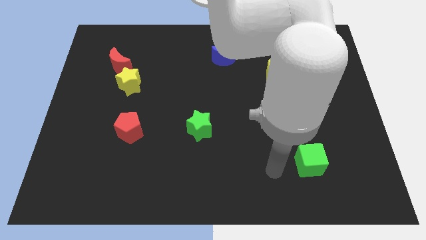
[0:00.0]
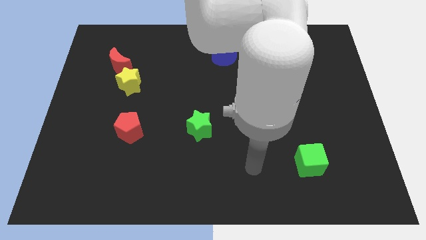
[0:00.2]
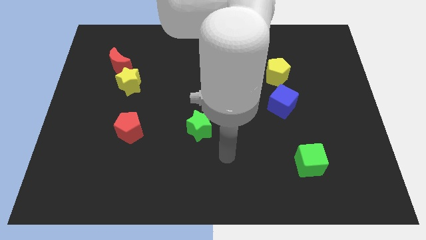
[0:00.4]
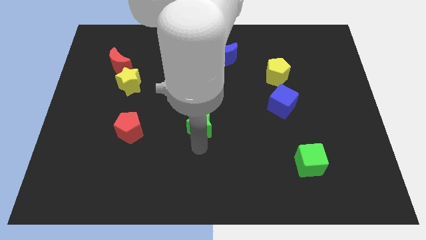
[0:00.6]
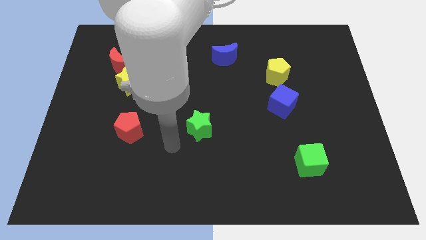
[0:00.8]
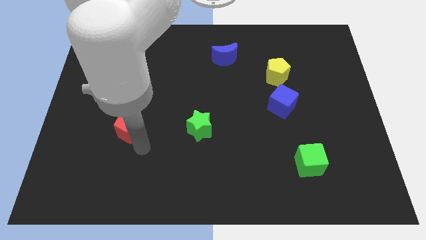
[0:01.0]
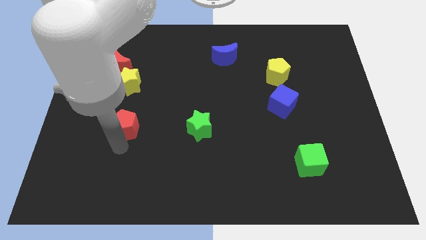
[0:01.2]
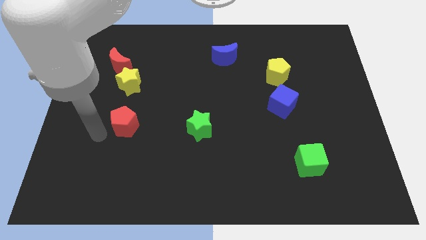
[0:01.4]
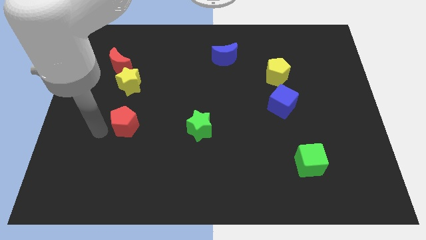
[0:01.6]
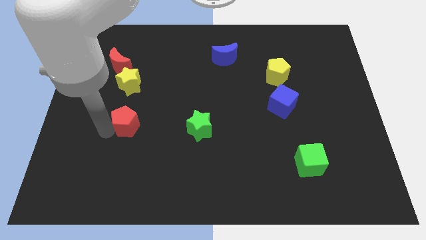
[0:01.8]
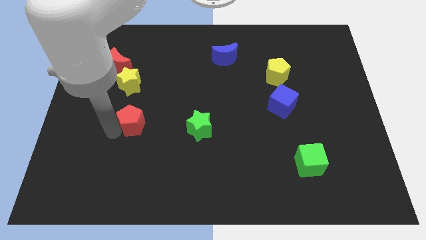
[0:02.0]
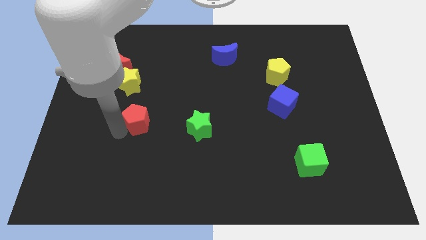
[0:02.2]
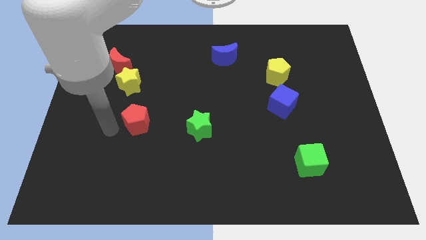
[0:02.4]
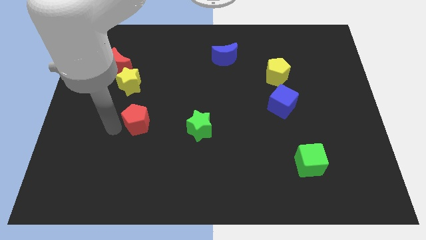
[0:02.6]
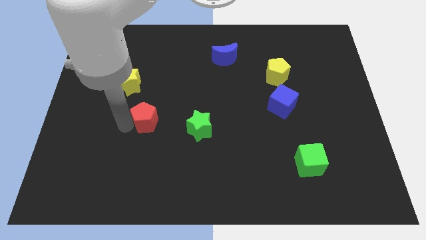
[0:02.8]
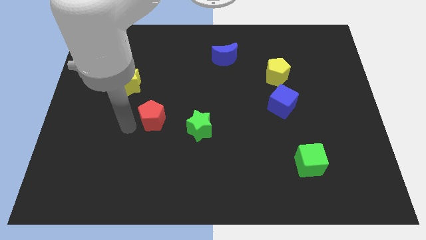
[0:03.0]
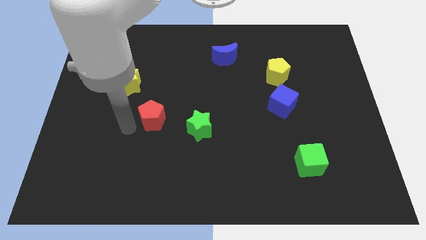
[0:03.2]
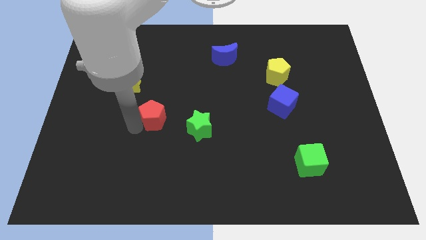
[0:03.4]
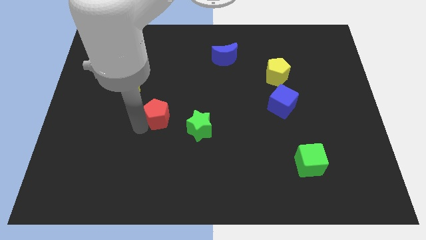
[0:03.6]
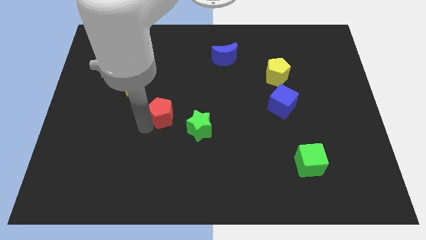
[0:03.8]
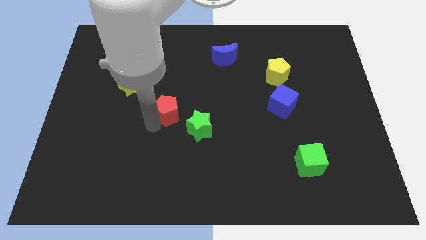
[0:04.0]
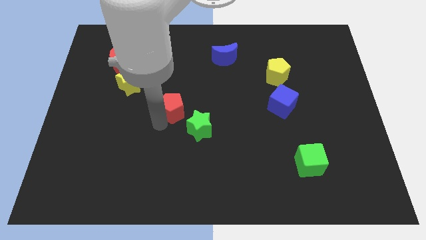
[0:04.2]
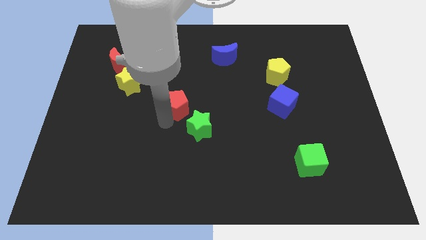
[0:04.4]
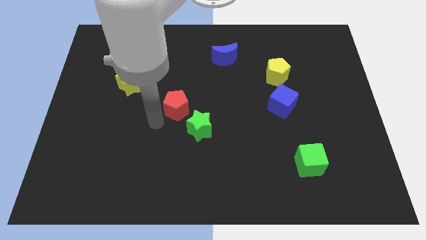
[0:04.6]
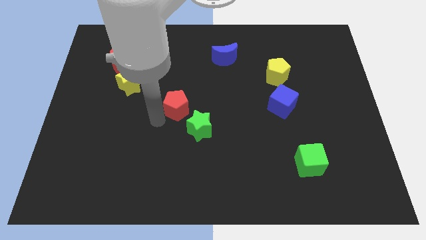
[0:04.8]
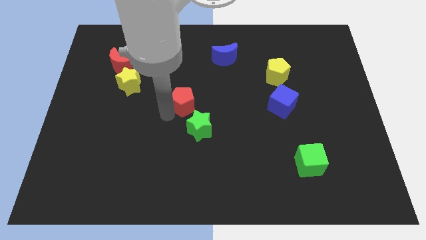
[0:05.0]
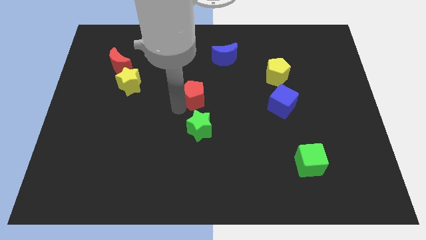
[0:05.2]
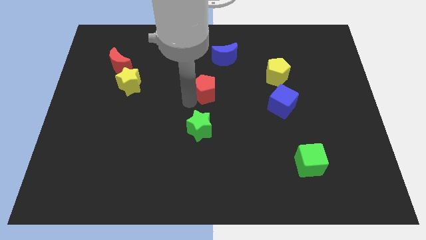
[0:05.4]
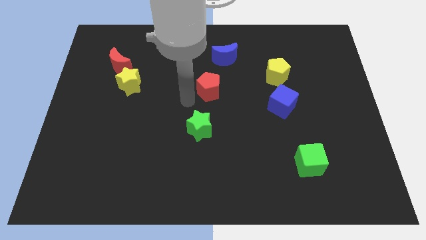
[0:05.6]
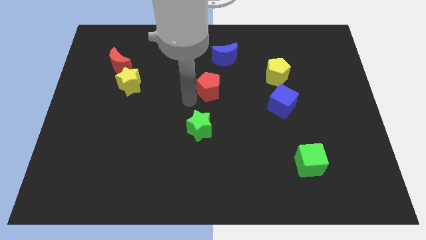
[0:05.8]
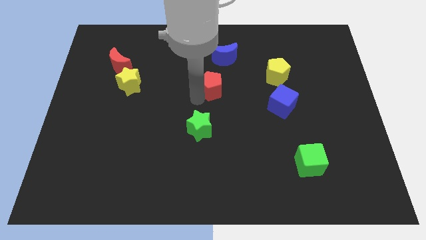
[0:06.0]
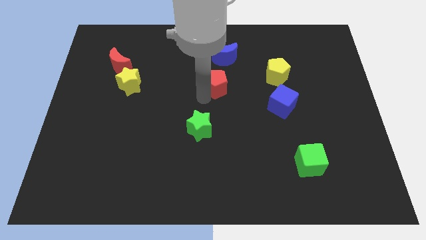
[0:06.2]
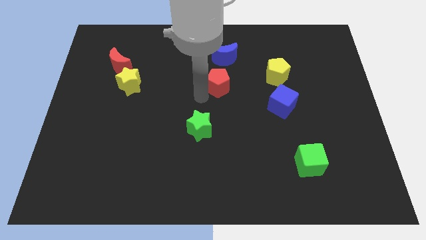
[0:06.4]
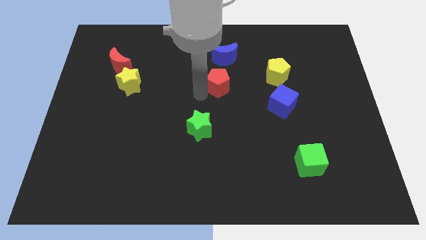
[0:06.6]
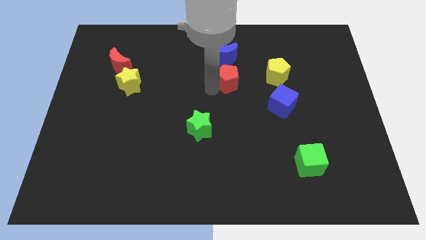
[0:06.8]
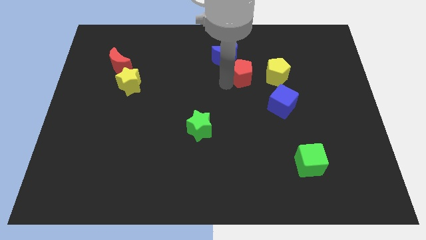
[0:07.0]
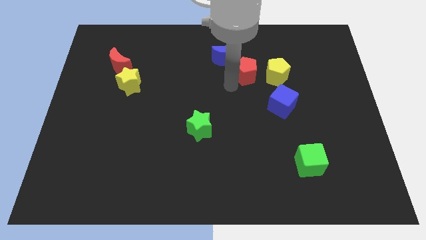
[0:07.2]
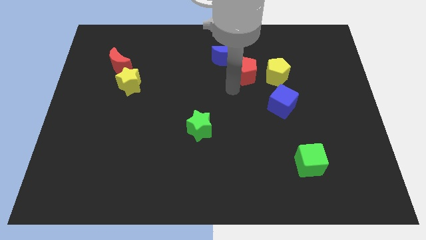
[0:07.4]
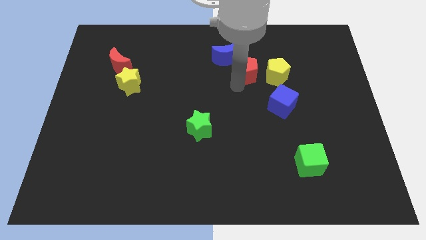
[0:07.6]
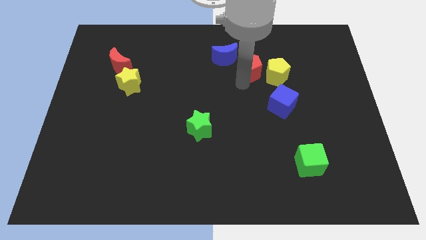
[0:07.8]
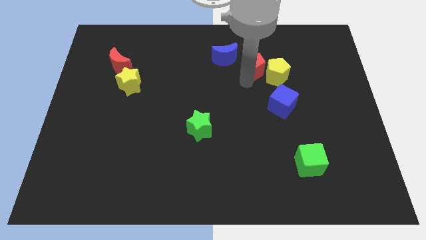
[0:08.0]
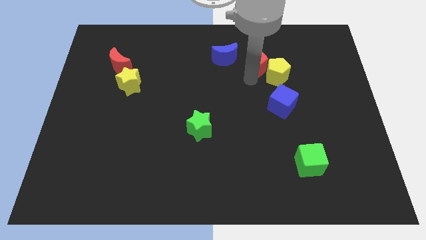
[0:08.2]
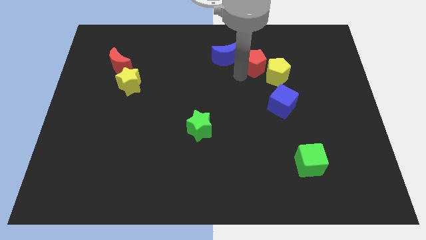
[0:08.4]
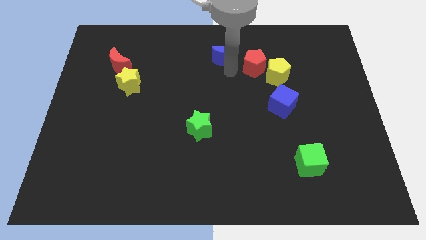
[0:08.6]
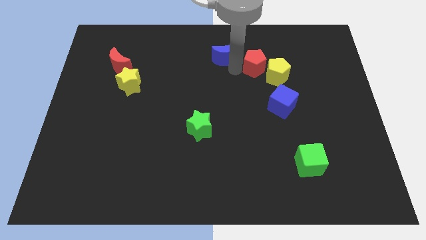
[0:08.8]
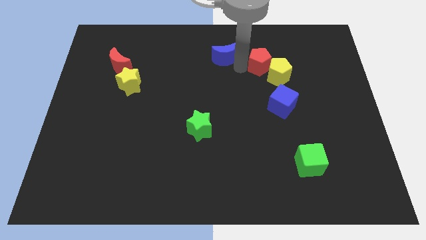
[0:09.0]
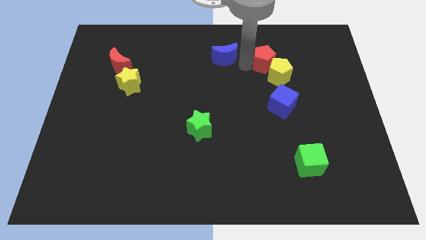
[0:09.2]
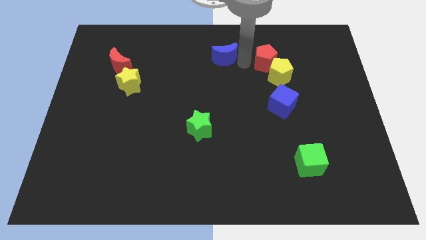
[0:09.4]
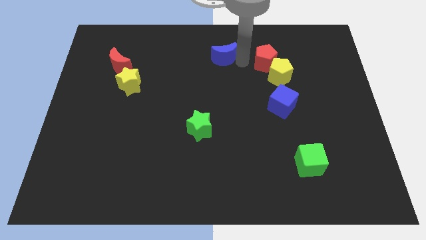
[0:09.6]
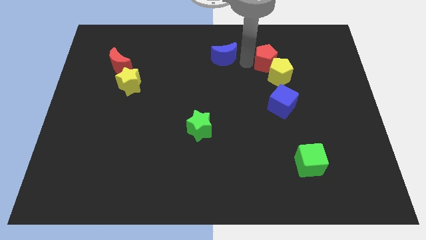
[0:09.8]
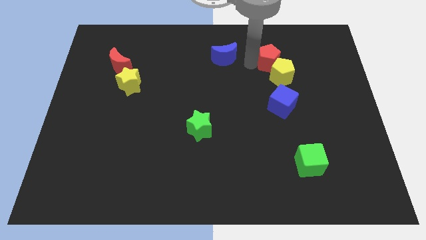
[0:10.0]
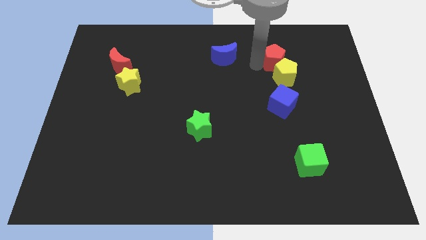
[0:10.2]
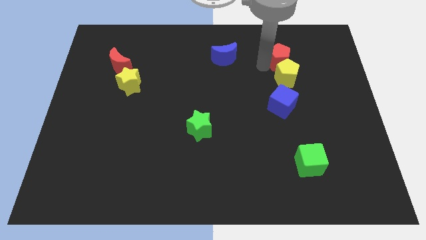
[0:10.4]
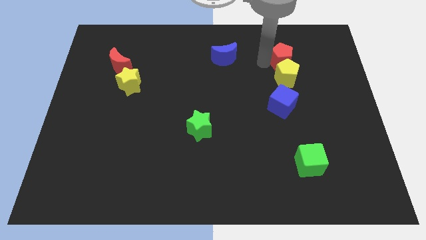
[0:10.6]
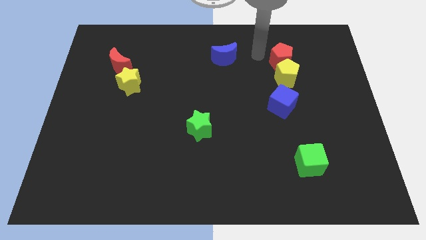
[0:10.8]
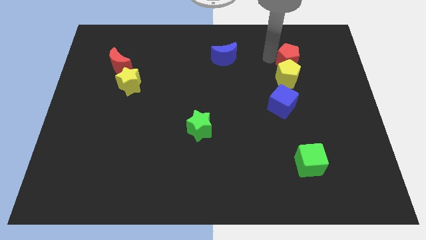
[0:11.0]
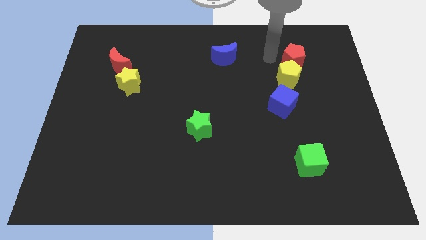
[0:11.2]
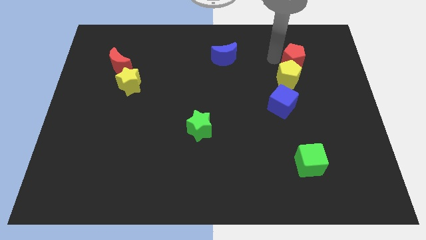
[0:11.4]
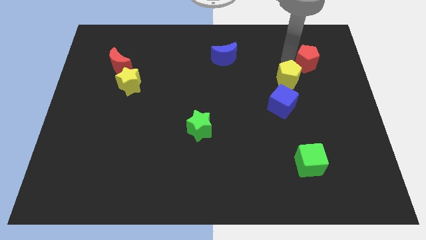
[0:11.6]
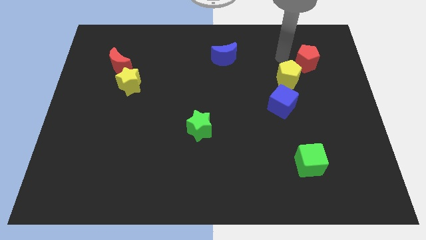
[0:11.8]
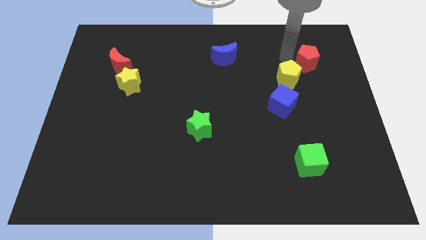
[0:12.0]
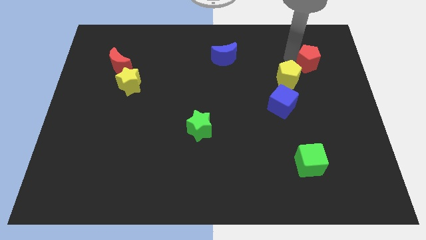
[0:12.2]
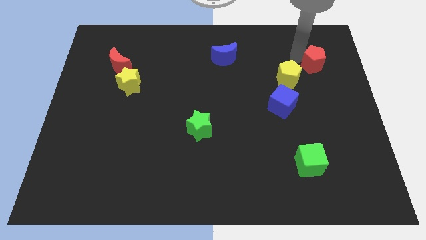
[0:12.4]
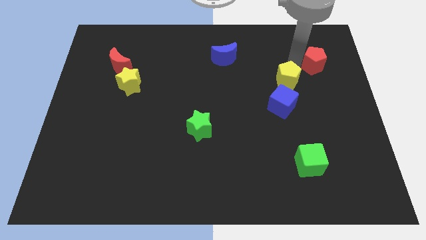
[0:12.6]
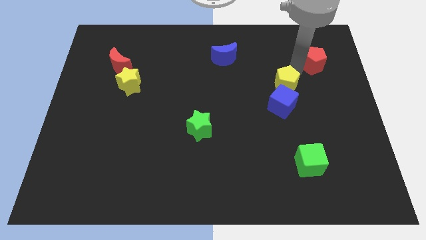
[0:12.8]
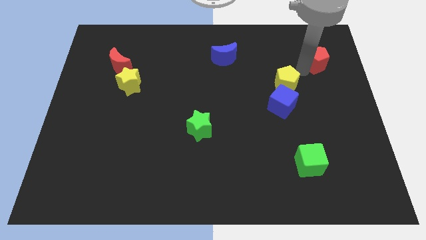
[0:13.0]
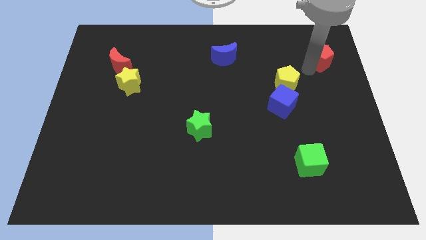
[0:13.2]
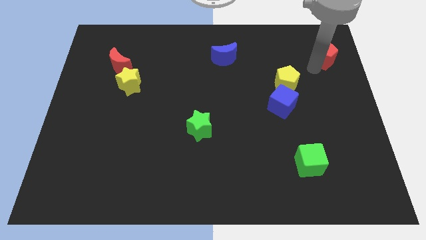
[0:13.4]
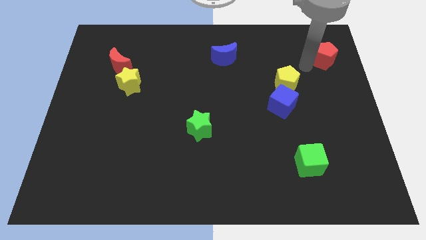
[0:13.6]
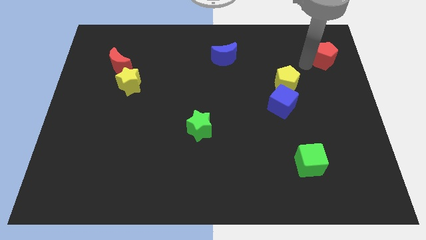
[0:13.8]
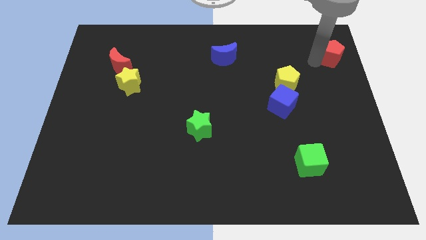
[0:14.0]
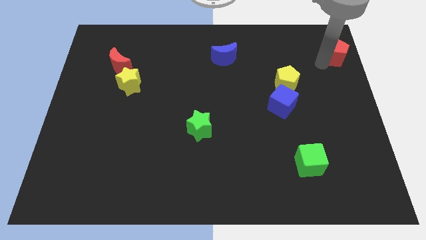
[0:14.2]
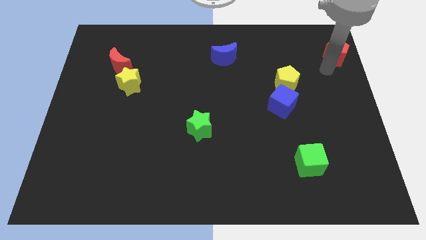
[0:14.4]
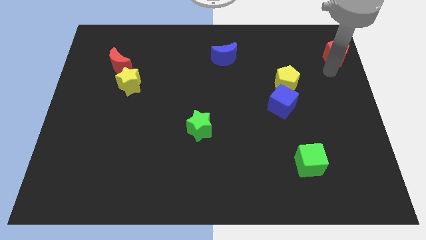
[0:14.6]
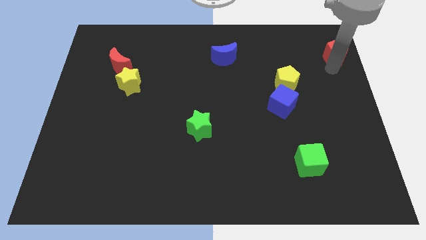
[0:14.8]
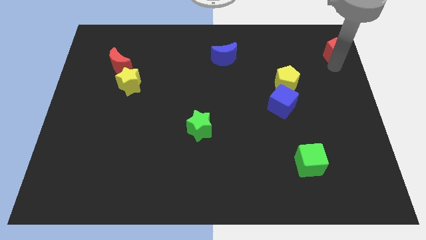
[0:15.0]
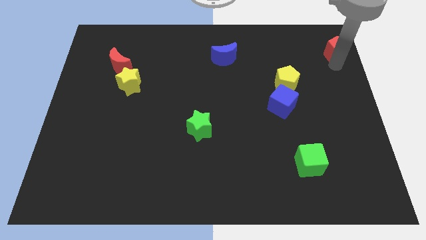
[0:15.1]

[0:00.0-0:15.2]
put the red pentagon to the upper right corner
